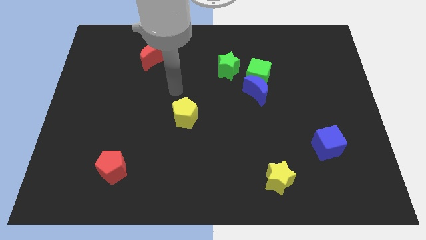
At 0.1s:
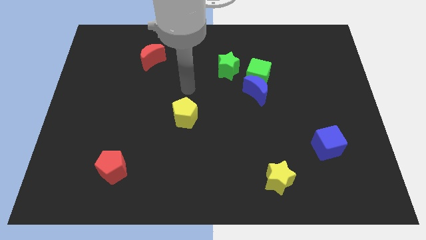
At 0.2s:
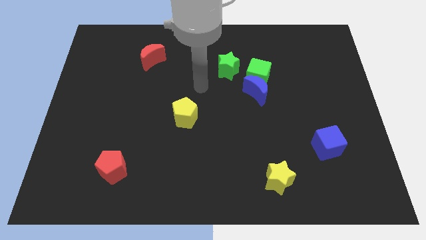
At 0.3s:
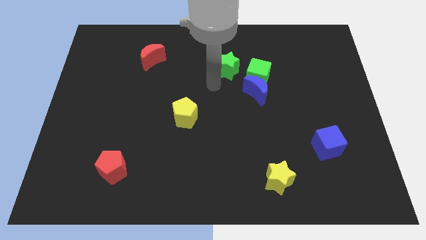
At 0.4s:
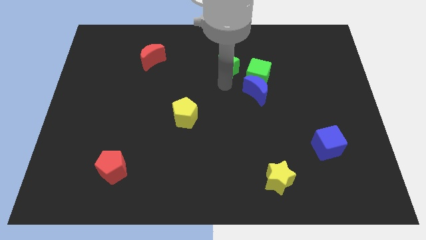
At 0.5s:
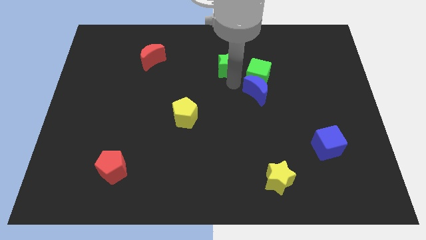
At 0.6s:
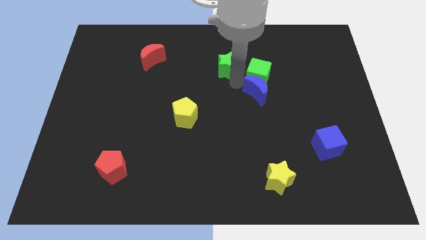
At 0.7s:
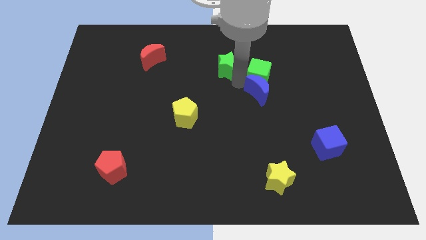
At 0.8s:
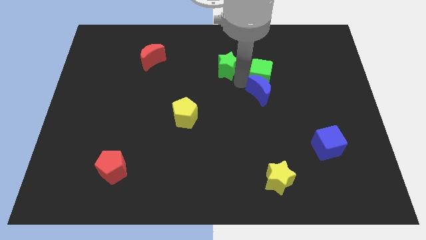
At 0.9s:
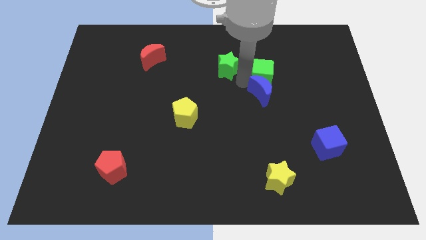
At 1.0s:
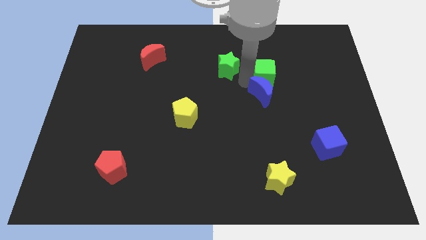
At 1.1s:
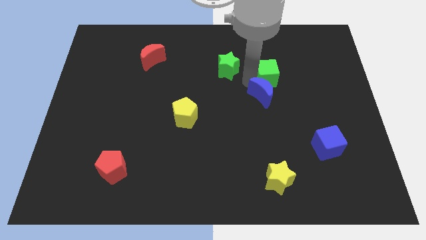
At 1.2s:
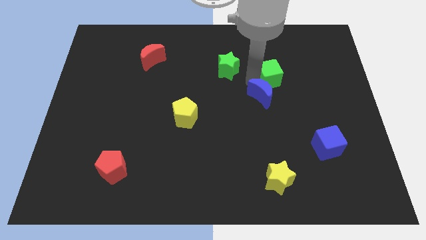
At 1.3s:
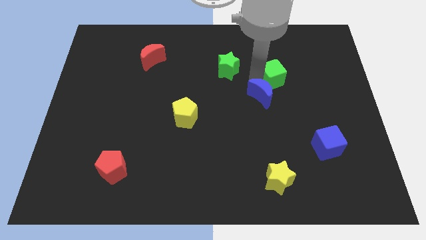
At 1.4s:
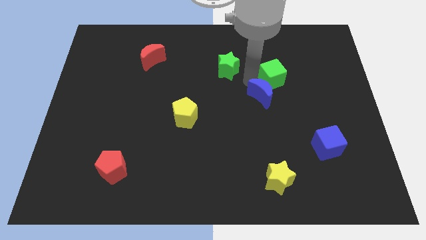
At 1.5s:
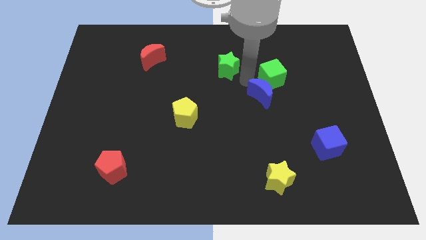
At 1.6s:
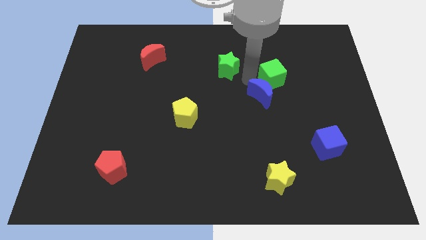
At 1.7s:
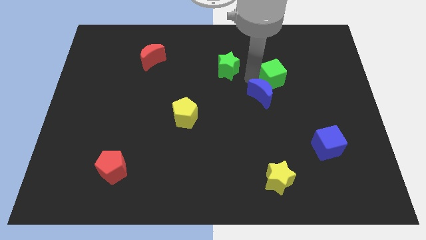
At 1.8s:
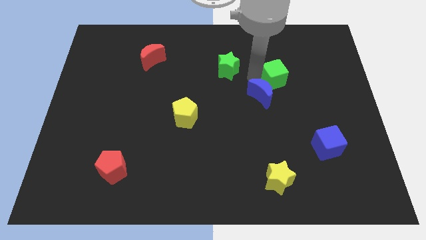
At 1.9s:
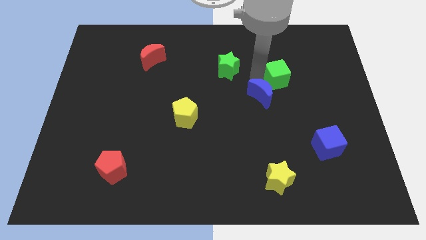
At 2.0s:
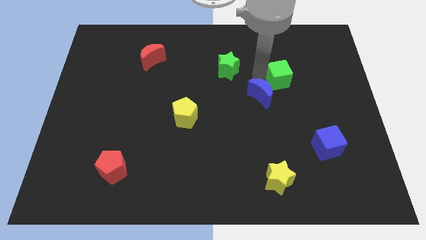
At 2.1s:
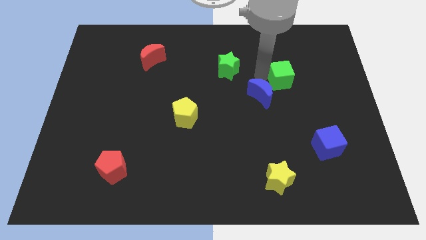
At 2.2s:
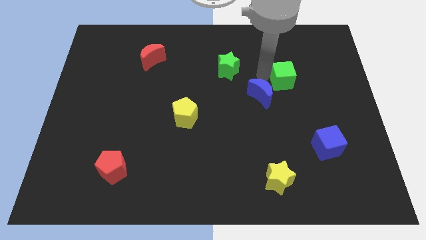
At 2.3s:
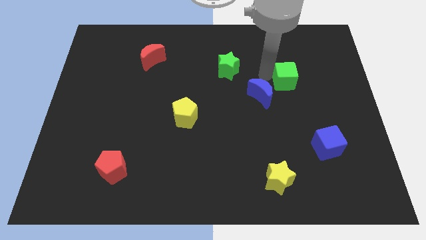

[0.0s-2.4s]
pull the green cube apart from the blue moon and green star

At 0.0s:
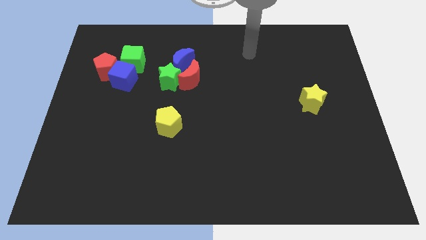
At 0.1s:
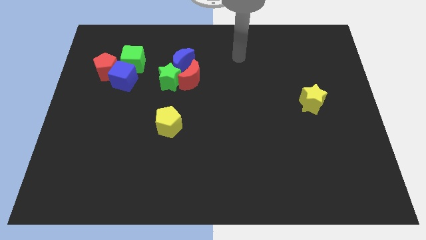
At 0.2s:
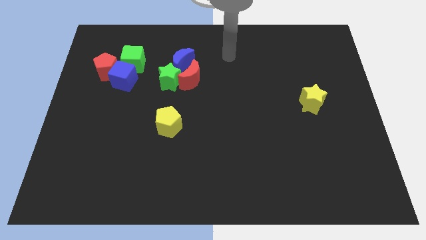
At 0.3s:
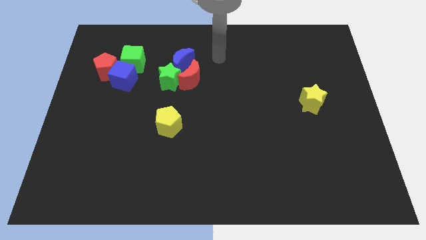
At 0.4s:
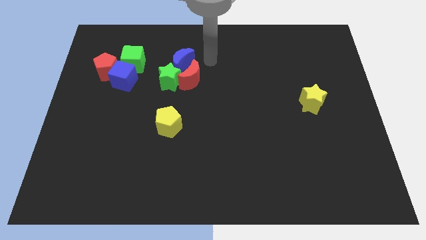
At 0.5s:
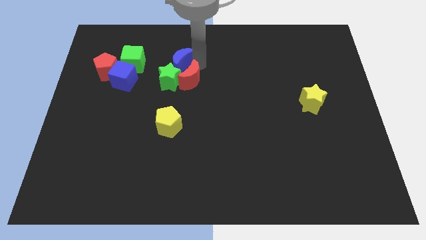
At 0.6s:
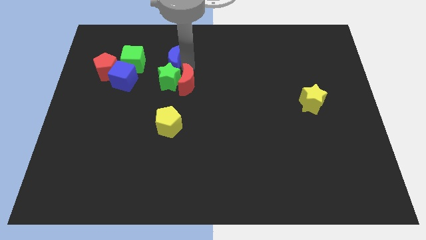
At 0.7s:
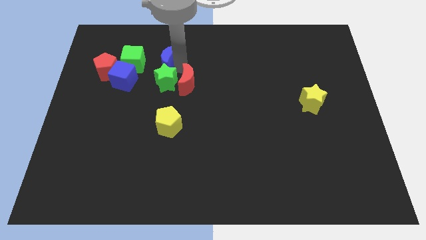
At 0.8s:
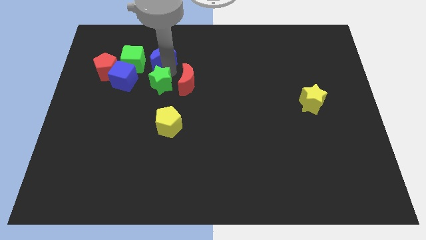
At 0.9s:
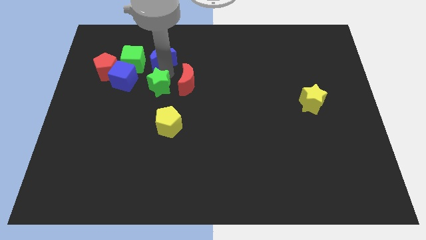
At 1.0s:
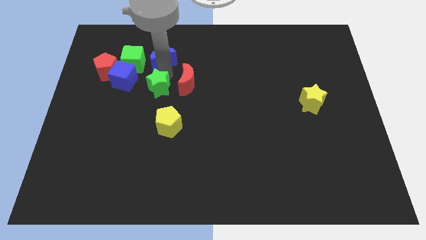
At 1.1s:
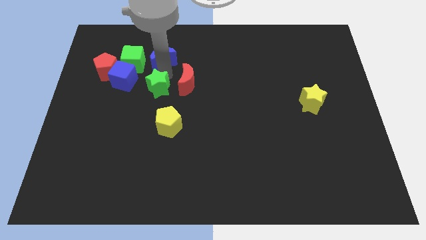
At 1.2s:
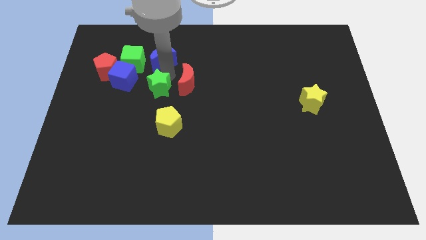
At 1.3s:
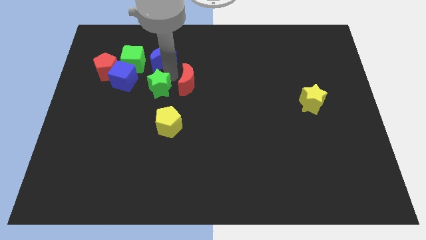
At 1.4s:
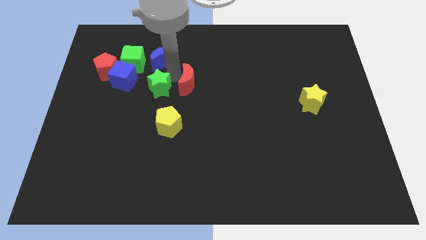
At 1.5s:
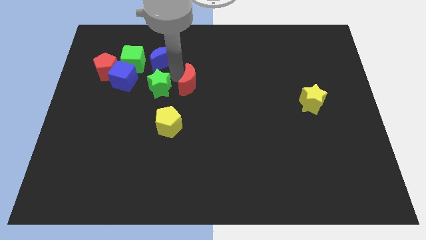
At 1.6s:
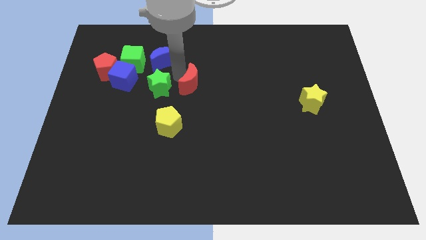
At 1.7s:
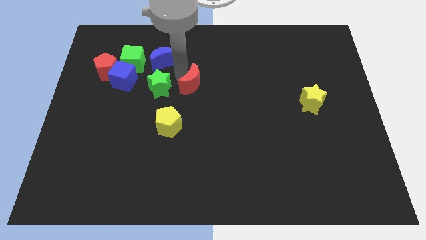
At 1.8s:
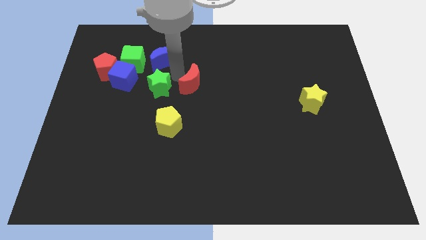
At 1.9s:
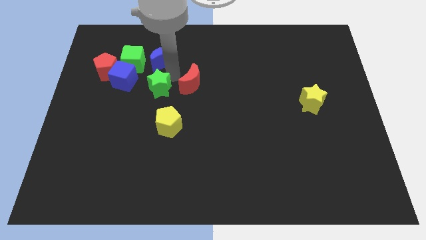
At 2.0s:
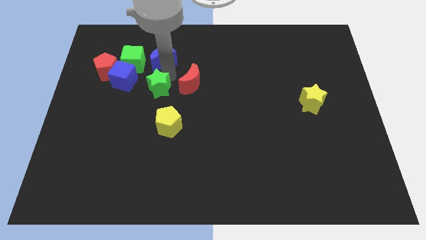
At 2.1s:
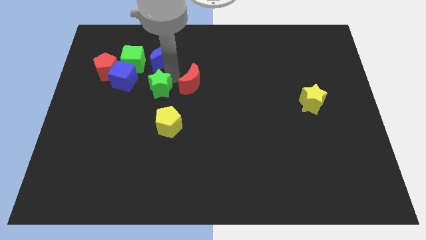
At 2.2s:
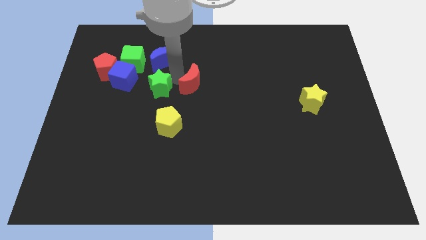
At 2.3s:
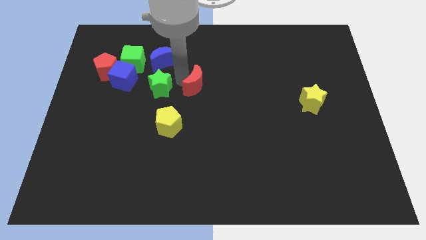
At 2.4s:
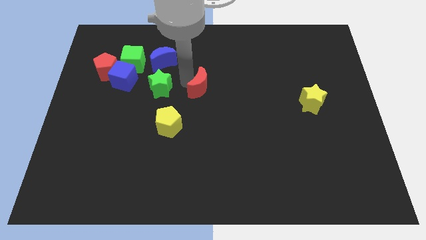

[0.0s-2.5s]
pull the red moon apart from the green star and blue moon

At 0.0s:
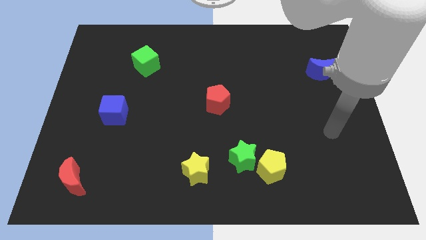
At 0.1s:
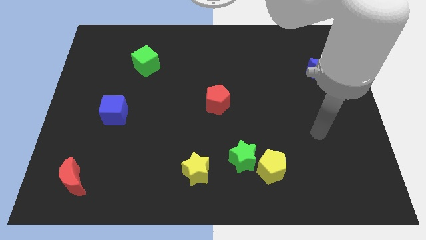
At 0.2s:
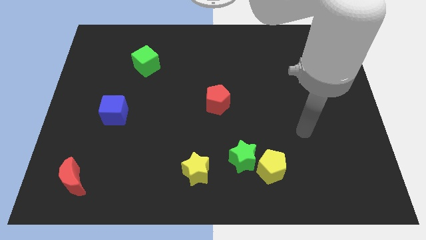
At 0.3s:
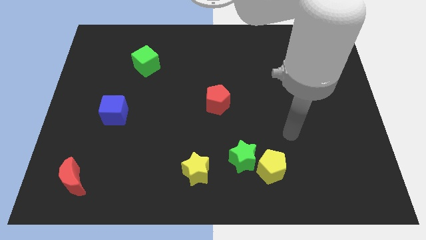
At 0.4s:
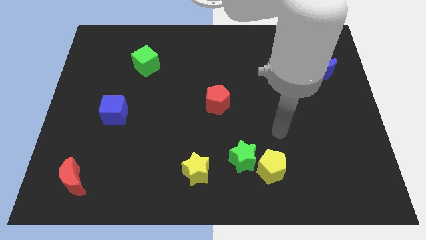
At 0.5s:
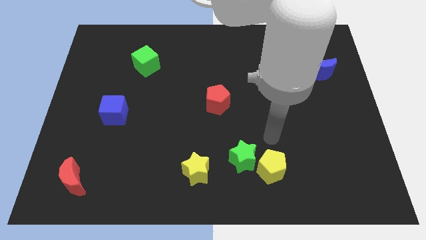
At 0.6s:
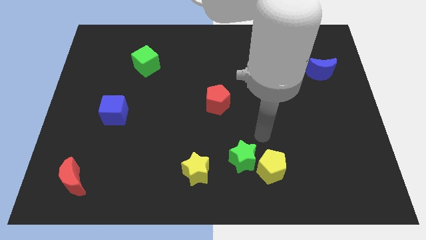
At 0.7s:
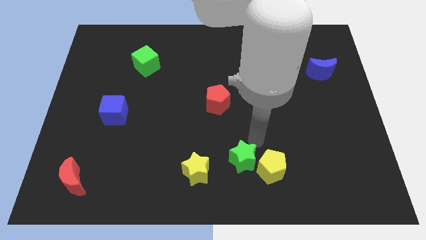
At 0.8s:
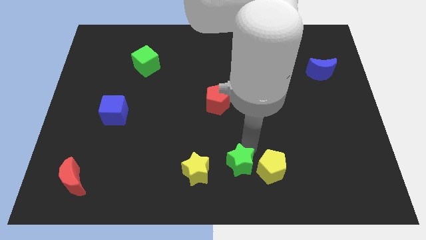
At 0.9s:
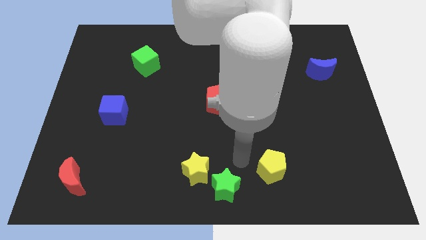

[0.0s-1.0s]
pull the yellow pentagon apart from the green star

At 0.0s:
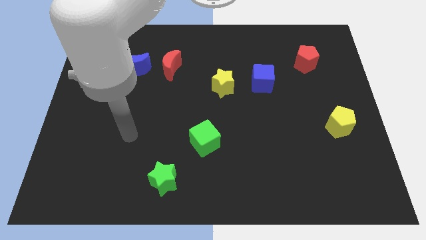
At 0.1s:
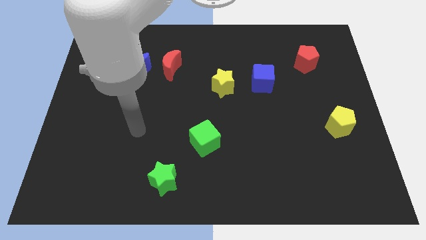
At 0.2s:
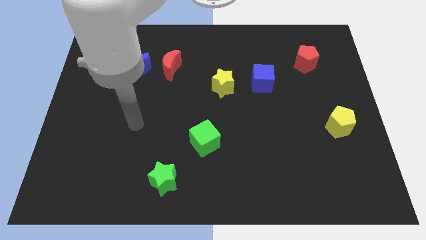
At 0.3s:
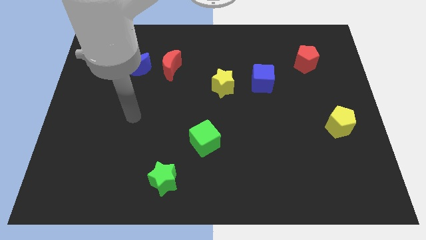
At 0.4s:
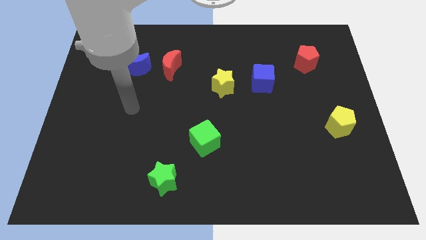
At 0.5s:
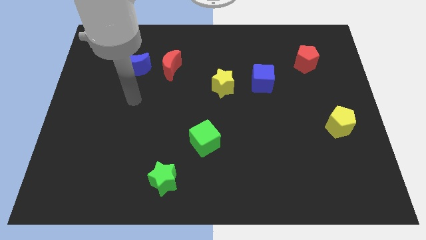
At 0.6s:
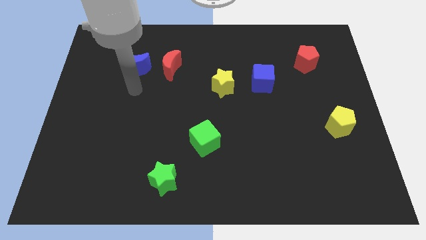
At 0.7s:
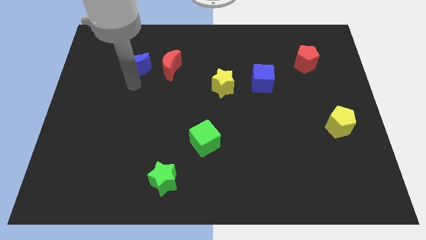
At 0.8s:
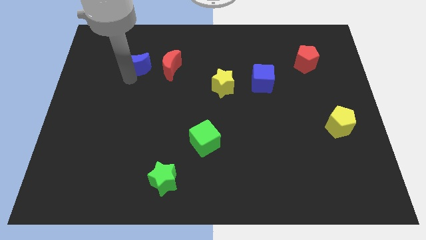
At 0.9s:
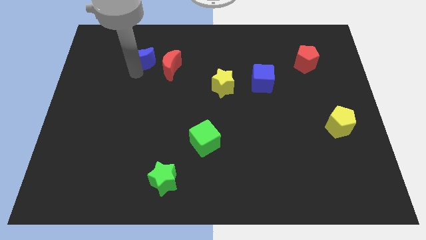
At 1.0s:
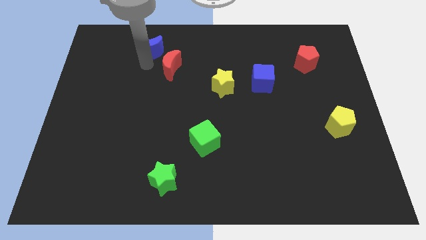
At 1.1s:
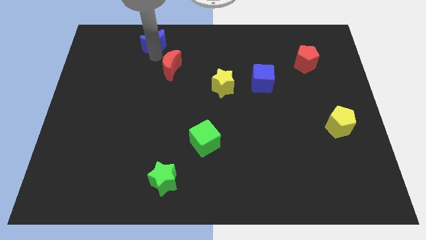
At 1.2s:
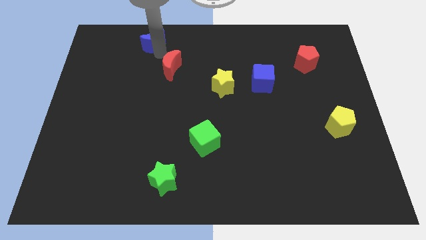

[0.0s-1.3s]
move the red moon away from the blue moon

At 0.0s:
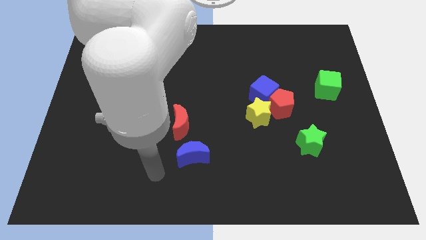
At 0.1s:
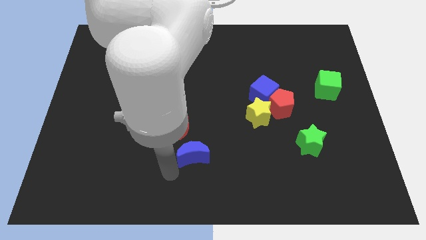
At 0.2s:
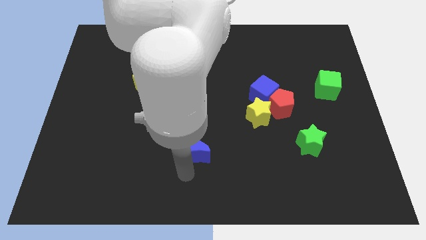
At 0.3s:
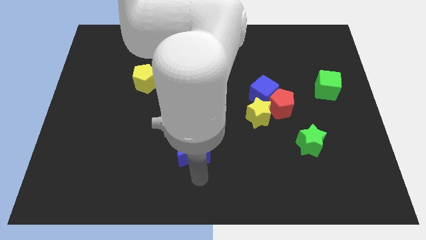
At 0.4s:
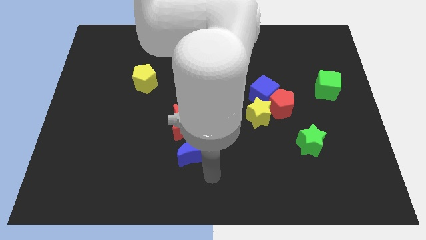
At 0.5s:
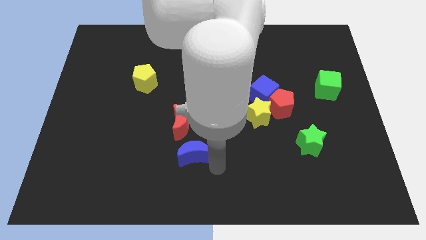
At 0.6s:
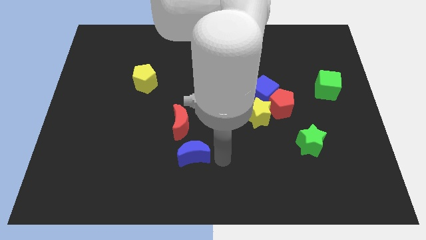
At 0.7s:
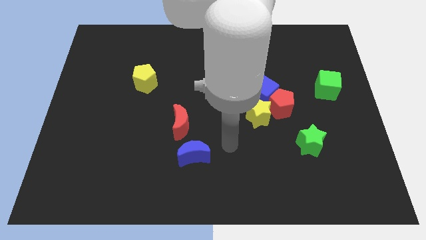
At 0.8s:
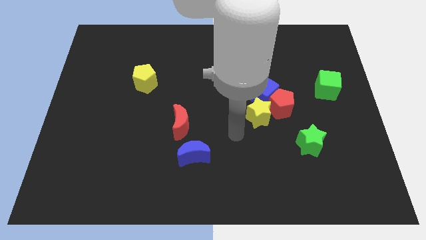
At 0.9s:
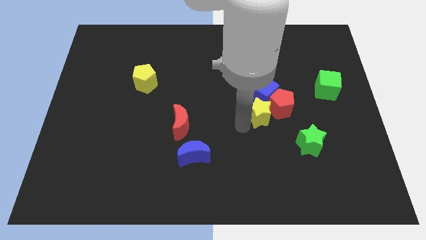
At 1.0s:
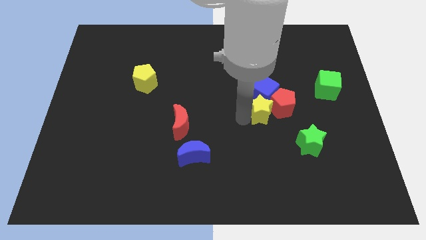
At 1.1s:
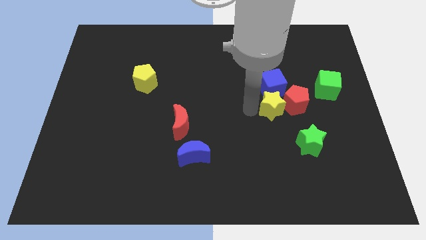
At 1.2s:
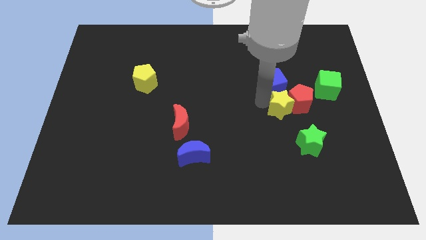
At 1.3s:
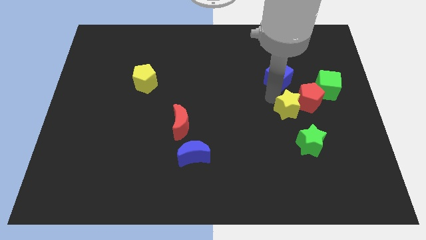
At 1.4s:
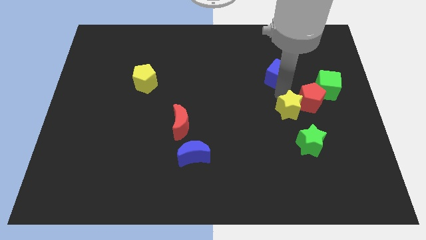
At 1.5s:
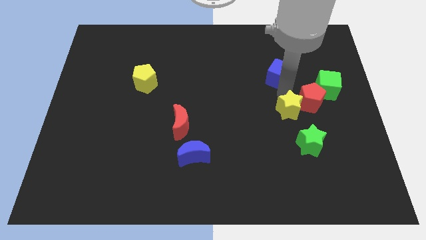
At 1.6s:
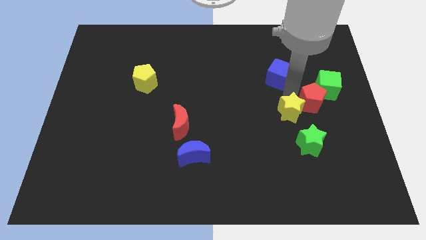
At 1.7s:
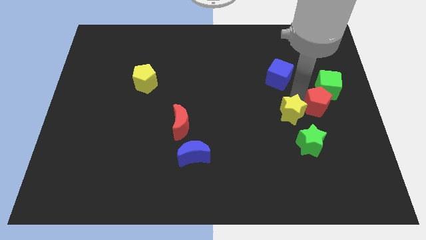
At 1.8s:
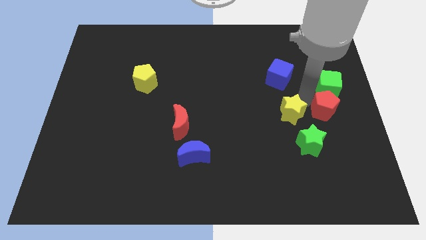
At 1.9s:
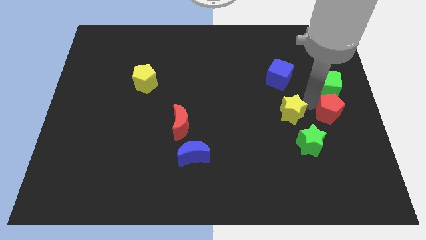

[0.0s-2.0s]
move the red pentagon away from the blue cube and yellow star

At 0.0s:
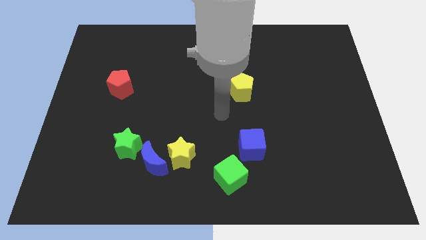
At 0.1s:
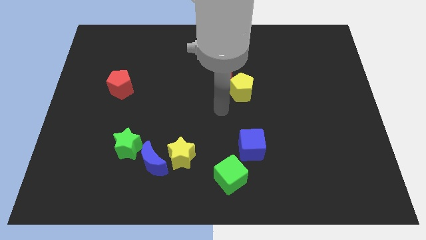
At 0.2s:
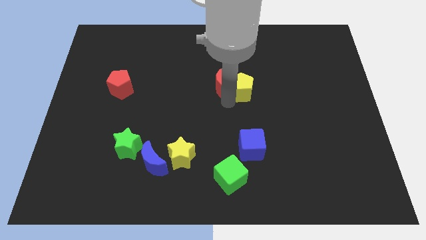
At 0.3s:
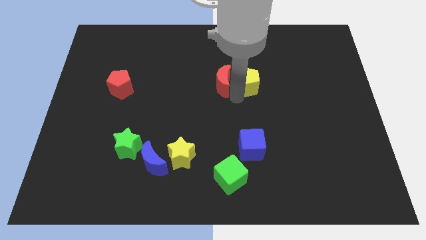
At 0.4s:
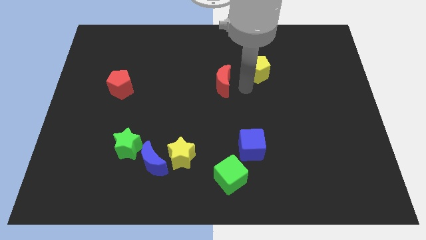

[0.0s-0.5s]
pull the red moon apart from the yellow pentagon
